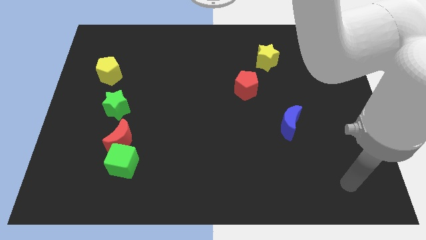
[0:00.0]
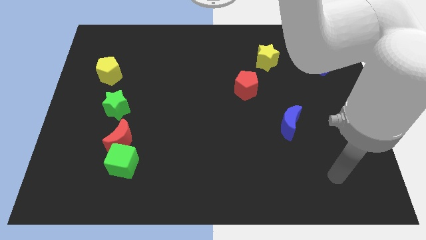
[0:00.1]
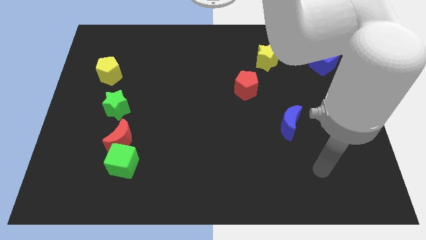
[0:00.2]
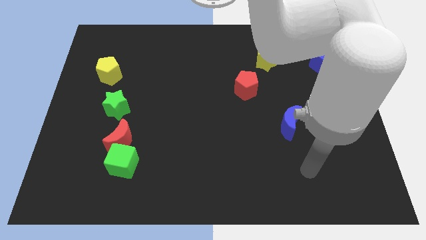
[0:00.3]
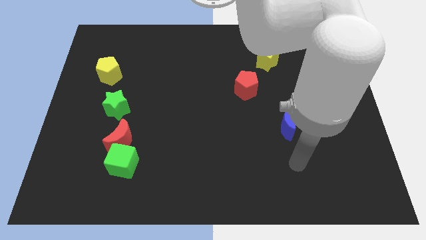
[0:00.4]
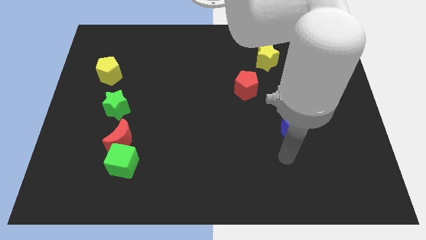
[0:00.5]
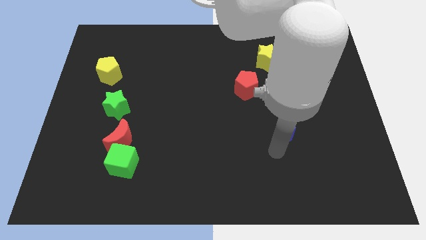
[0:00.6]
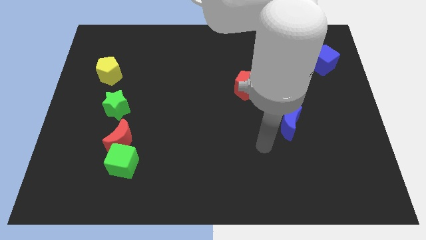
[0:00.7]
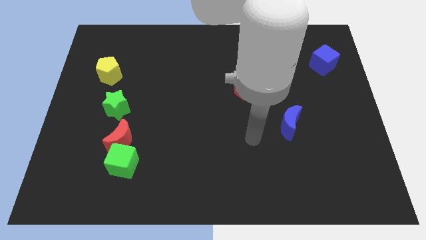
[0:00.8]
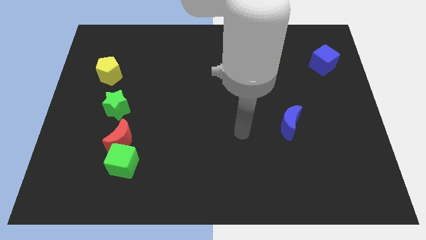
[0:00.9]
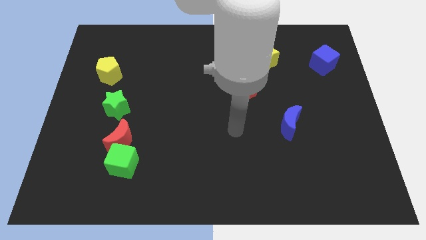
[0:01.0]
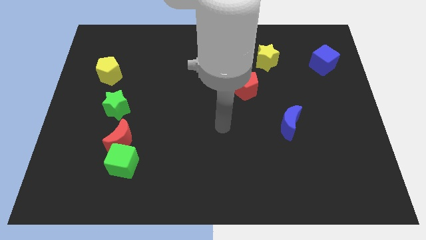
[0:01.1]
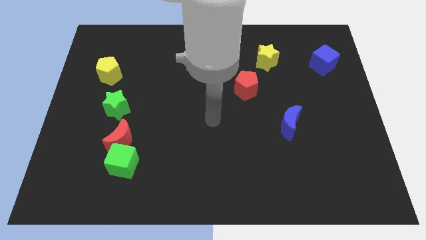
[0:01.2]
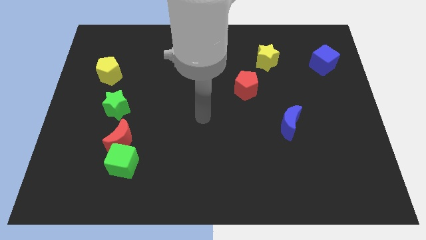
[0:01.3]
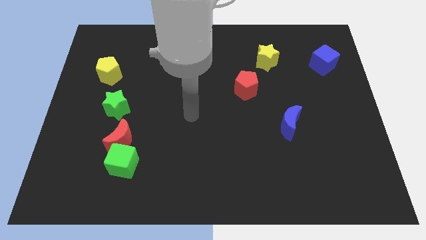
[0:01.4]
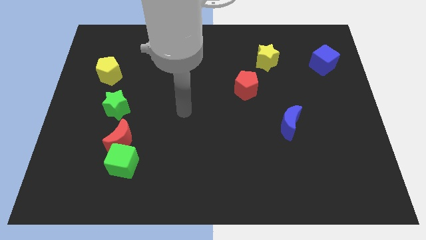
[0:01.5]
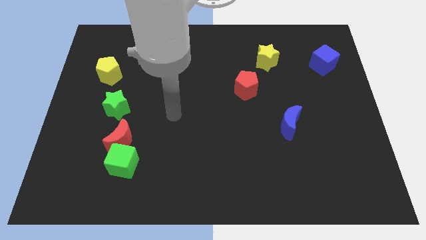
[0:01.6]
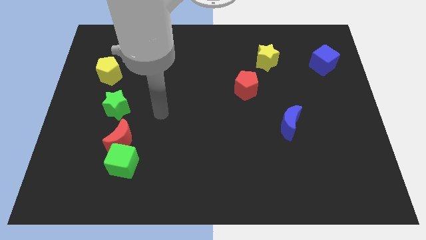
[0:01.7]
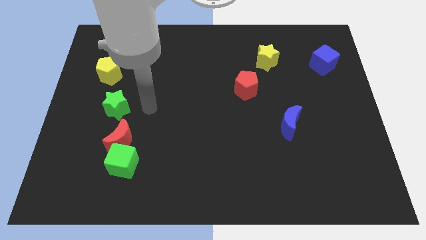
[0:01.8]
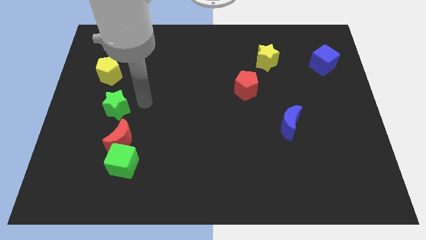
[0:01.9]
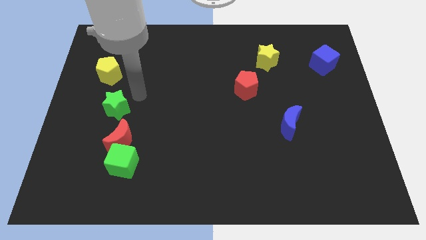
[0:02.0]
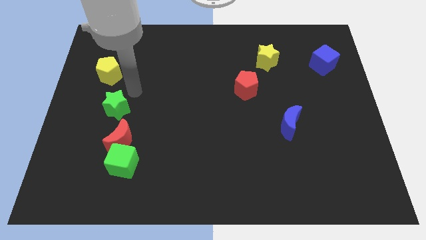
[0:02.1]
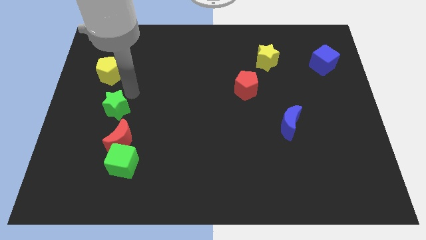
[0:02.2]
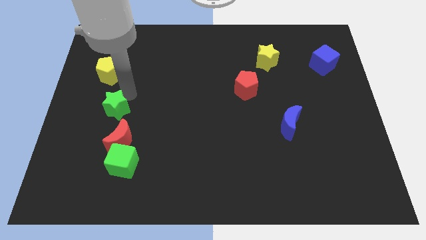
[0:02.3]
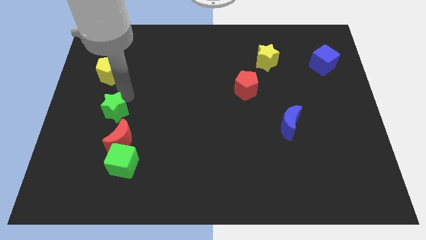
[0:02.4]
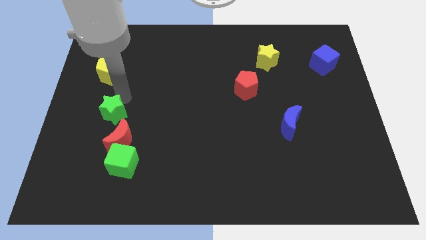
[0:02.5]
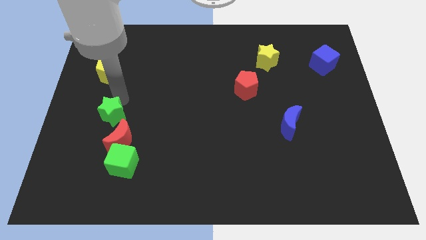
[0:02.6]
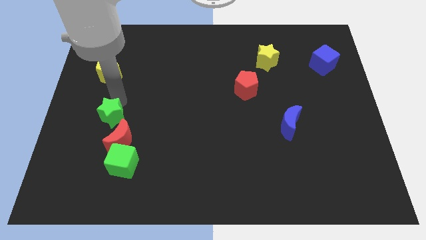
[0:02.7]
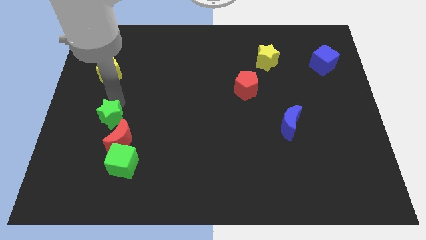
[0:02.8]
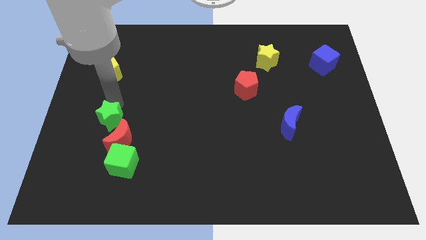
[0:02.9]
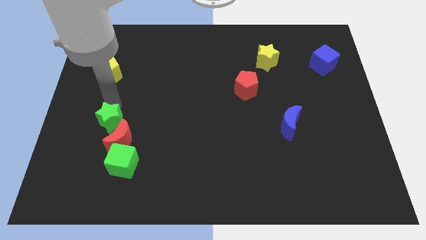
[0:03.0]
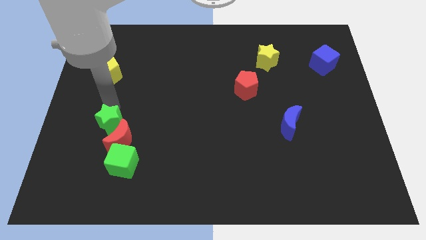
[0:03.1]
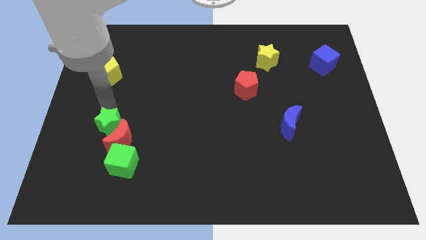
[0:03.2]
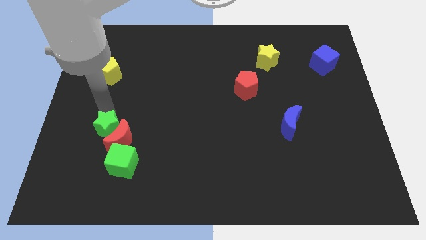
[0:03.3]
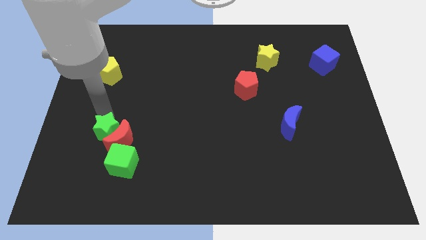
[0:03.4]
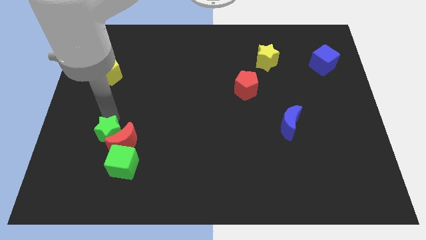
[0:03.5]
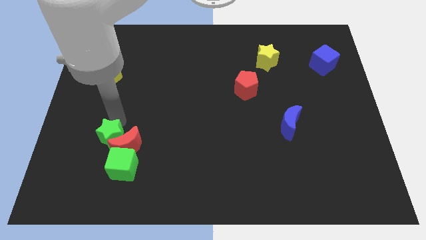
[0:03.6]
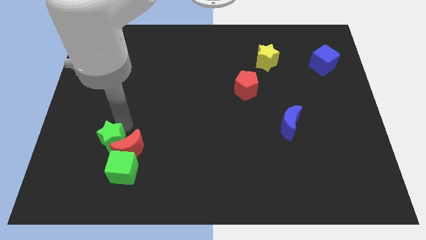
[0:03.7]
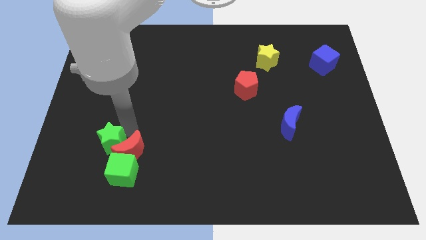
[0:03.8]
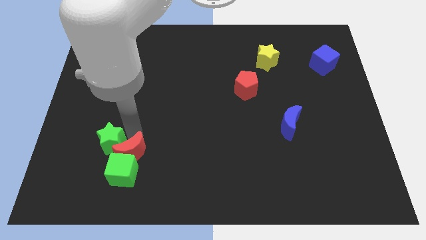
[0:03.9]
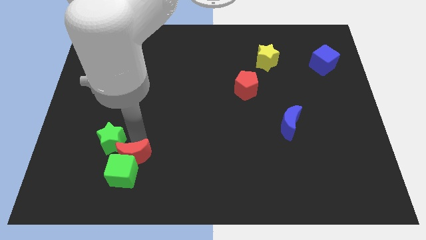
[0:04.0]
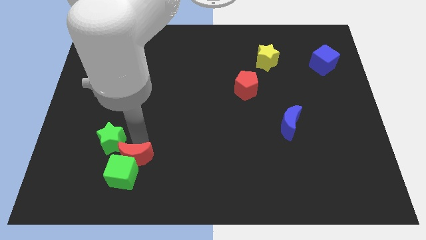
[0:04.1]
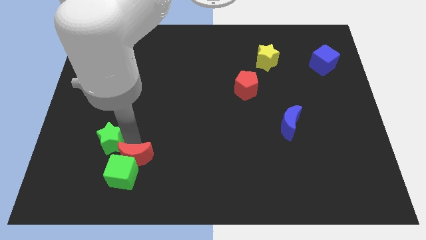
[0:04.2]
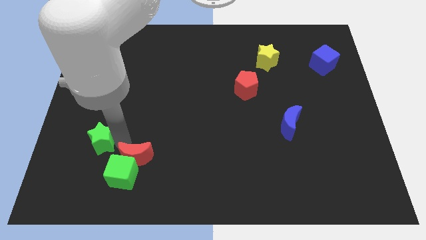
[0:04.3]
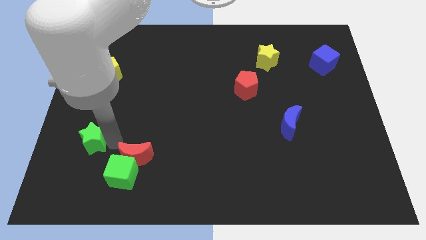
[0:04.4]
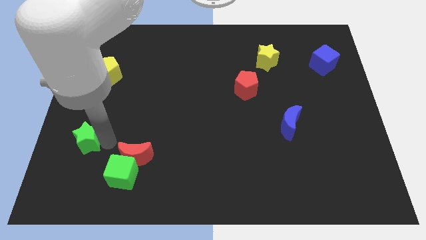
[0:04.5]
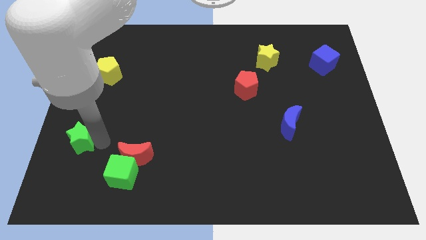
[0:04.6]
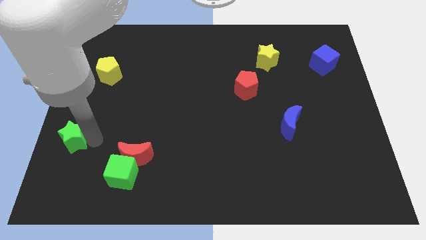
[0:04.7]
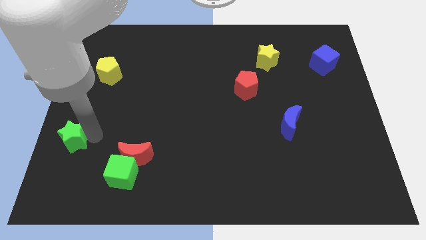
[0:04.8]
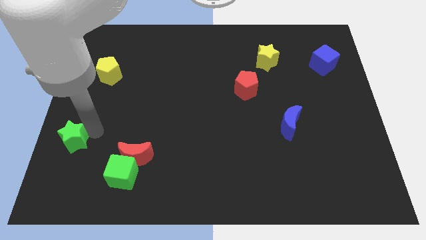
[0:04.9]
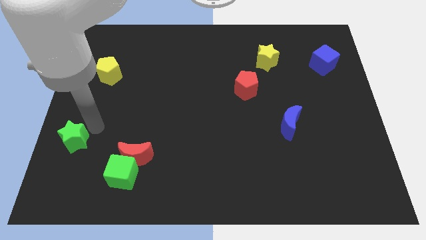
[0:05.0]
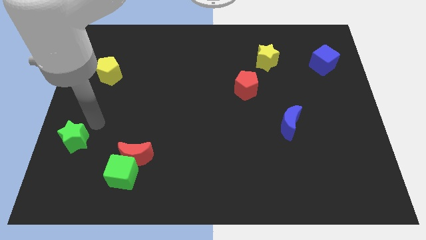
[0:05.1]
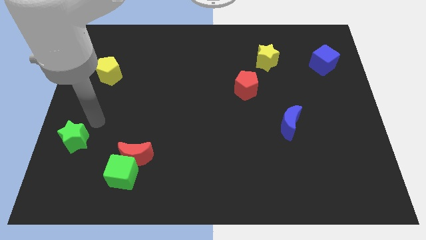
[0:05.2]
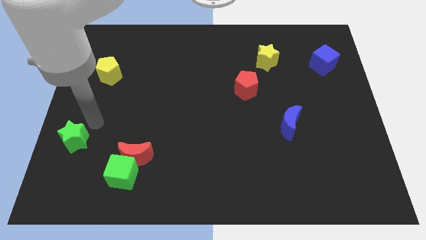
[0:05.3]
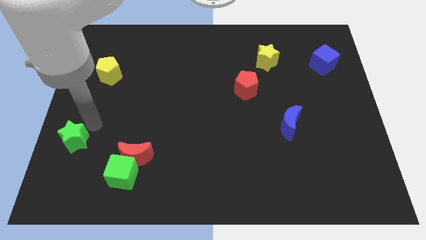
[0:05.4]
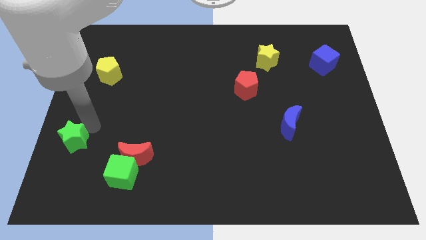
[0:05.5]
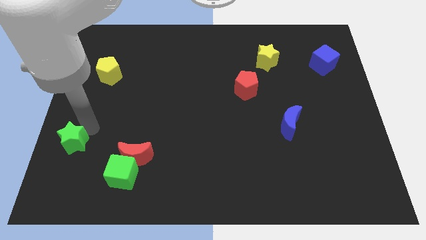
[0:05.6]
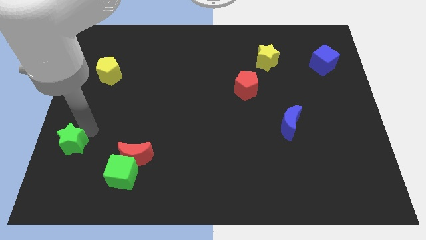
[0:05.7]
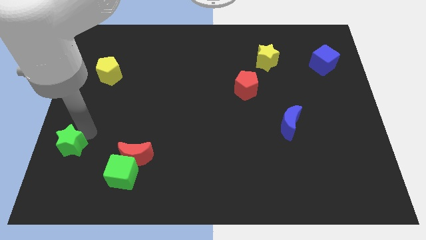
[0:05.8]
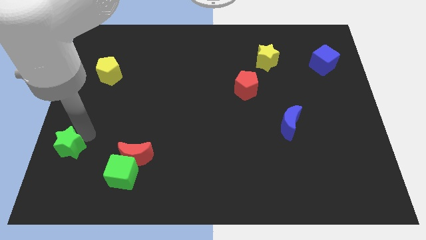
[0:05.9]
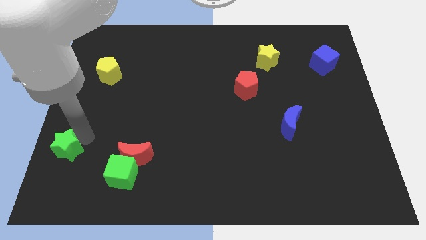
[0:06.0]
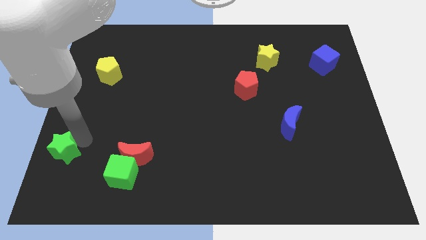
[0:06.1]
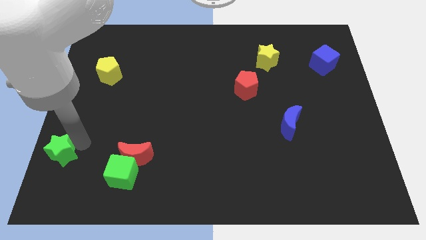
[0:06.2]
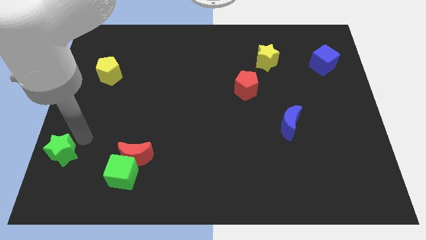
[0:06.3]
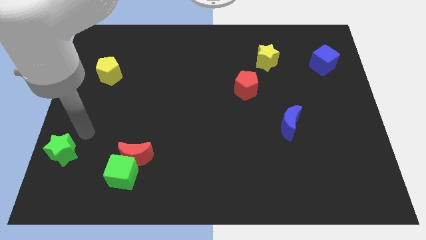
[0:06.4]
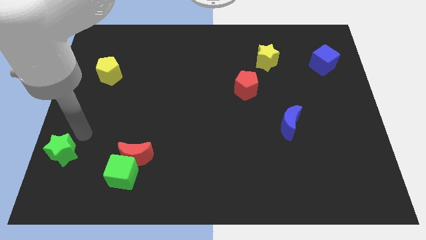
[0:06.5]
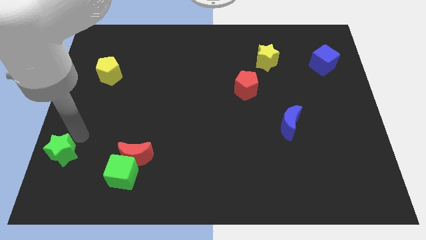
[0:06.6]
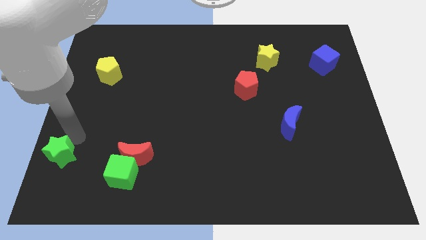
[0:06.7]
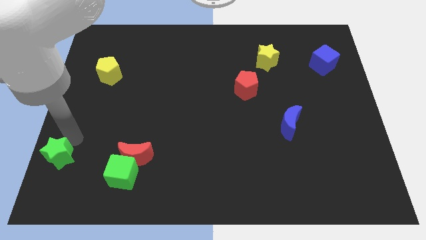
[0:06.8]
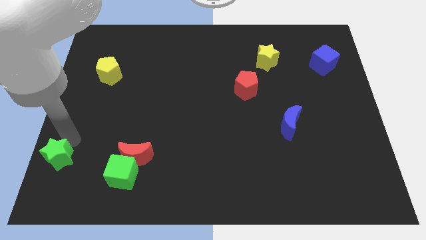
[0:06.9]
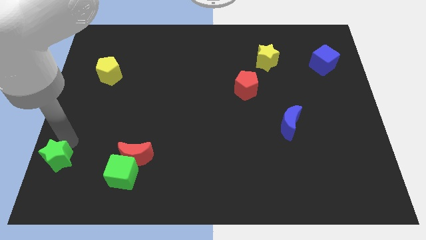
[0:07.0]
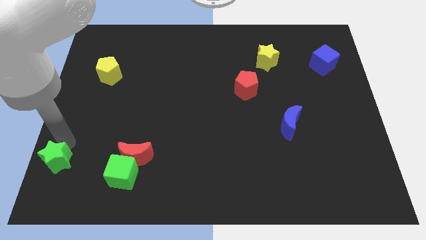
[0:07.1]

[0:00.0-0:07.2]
push the green star to the bottom left corner
